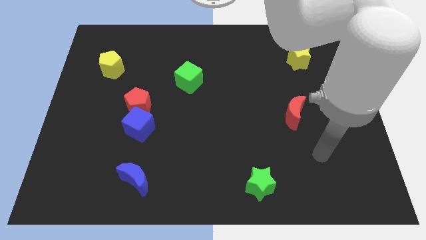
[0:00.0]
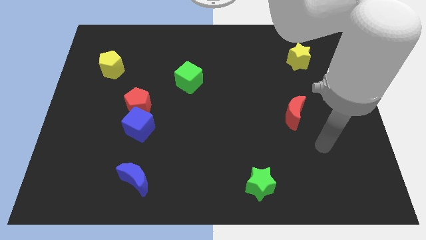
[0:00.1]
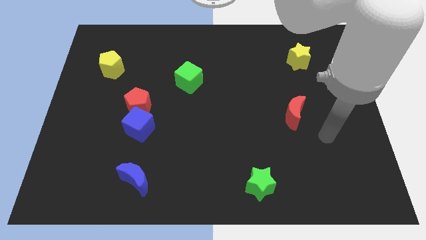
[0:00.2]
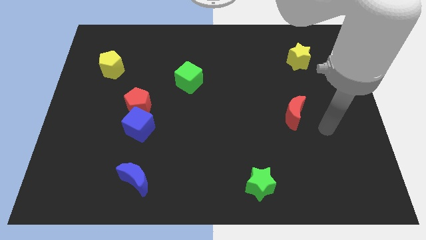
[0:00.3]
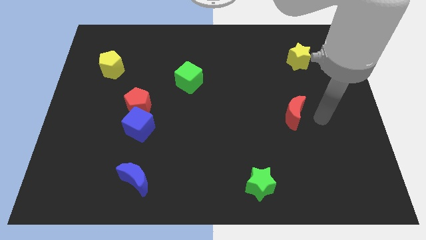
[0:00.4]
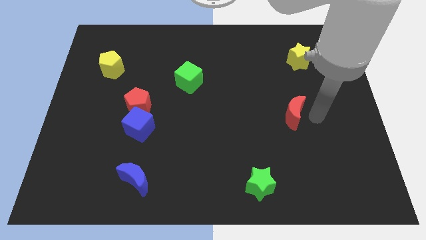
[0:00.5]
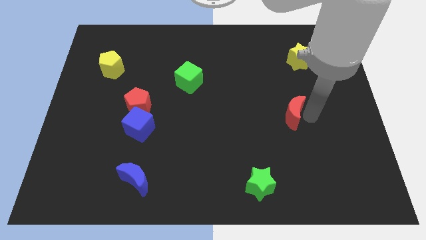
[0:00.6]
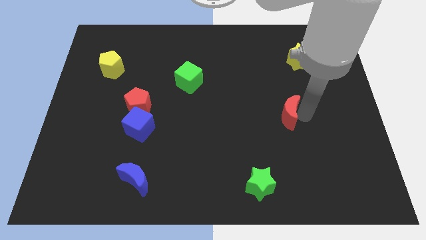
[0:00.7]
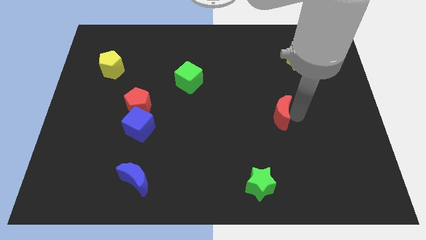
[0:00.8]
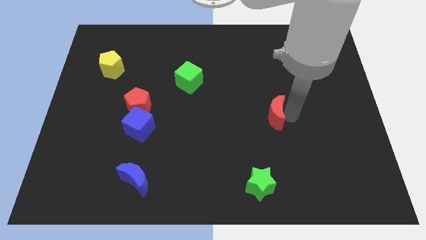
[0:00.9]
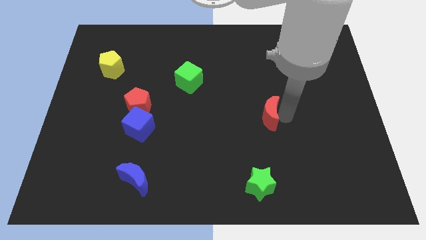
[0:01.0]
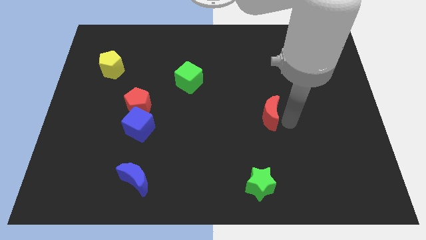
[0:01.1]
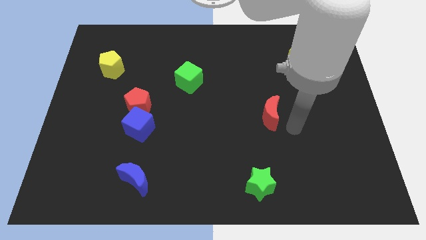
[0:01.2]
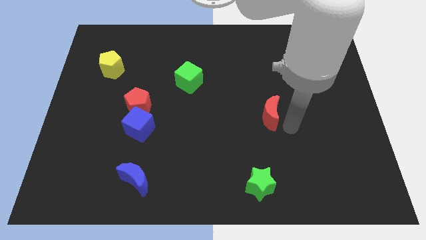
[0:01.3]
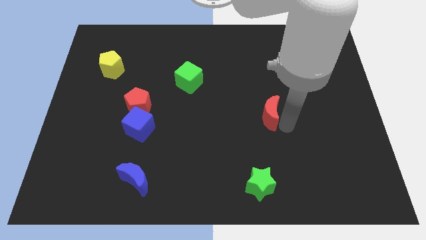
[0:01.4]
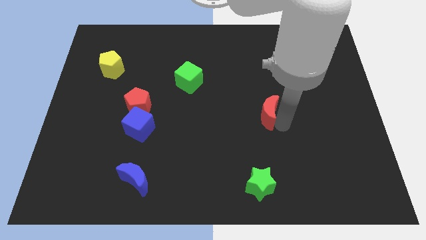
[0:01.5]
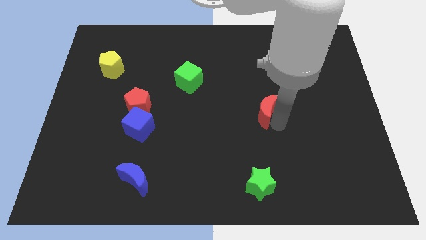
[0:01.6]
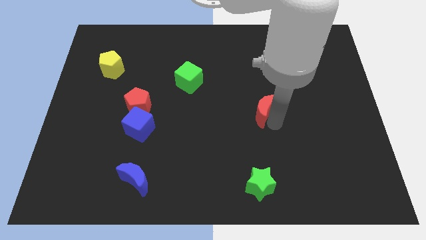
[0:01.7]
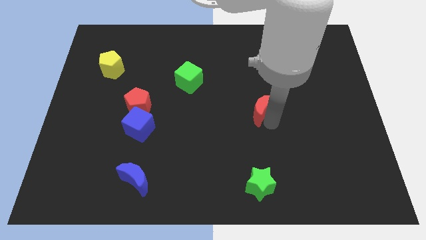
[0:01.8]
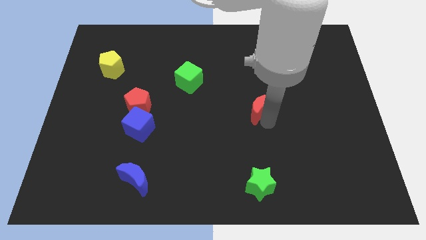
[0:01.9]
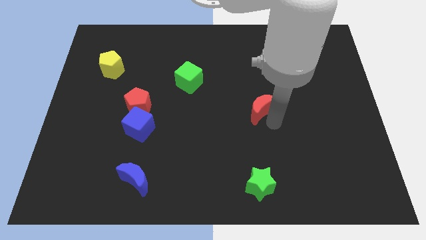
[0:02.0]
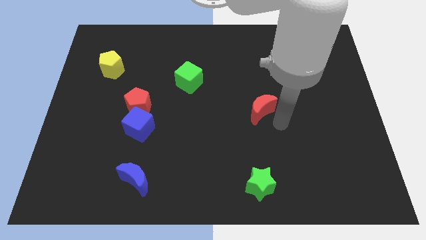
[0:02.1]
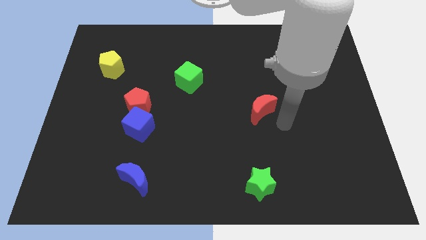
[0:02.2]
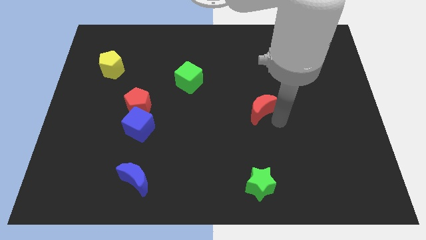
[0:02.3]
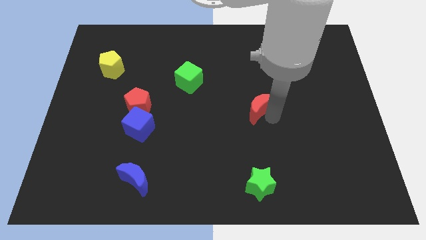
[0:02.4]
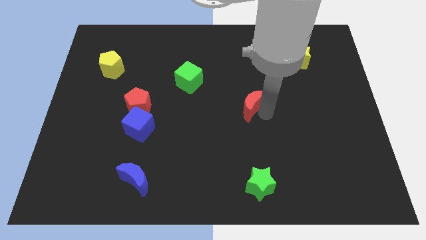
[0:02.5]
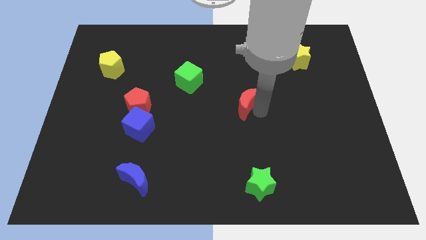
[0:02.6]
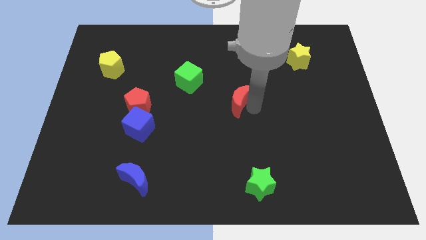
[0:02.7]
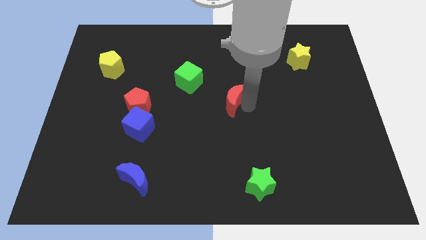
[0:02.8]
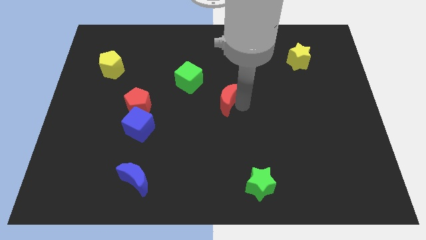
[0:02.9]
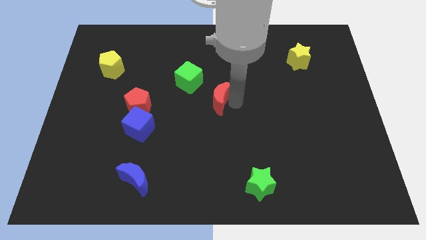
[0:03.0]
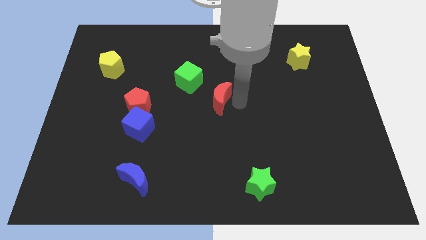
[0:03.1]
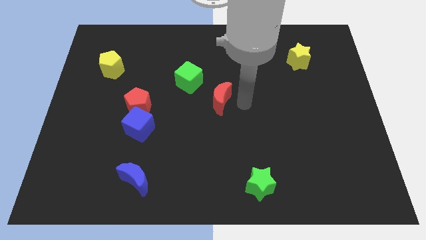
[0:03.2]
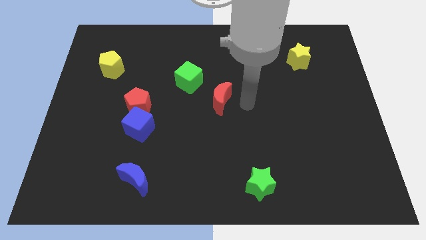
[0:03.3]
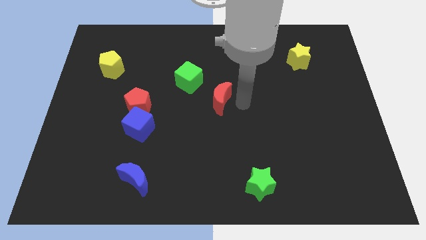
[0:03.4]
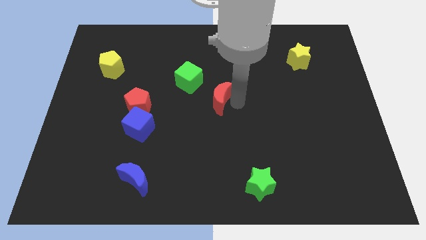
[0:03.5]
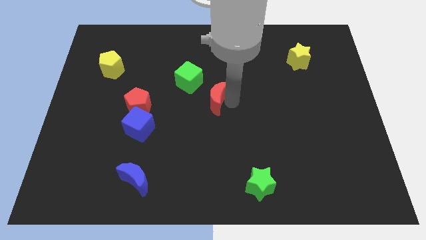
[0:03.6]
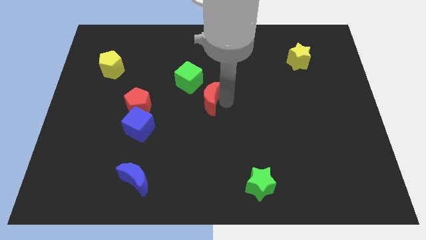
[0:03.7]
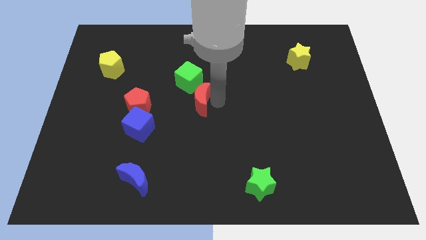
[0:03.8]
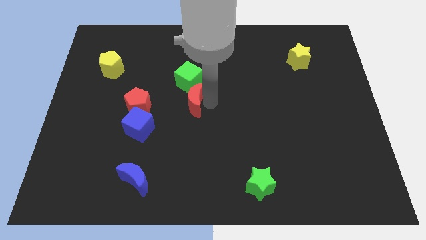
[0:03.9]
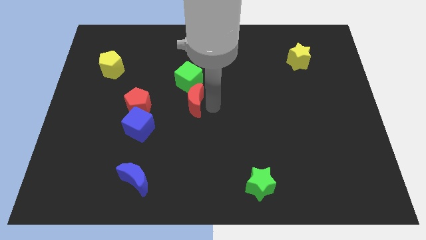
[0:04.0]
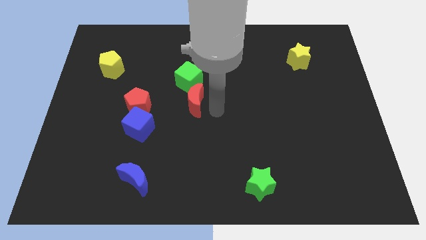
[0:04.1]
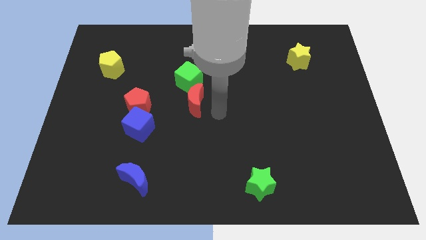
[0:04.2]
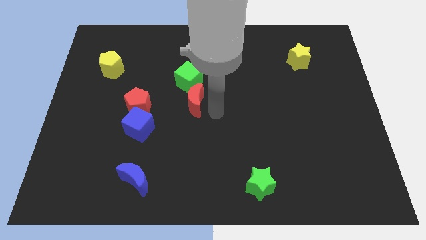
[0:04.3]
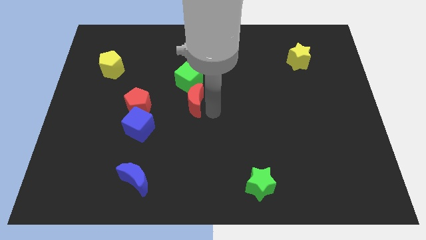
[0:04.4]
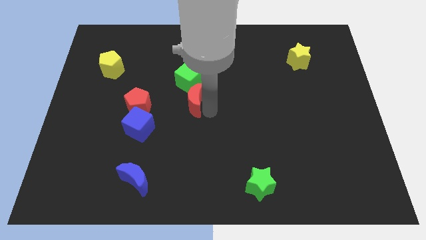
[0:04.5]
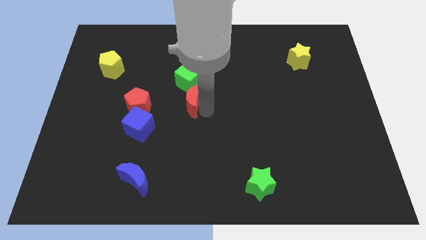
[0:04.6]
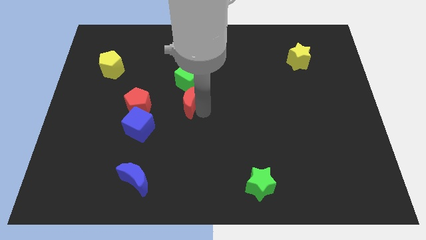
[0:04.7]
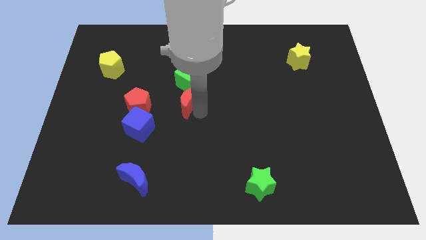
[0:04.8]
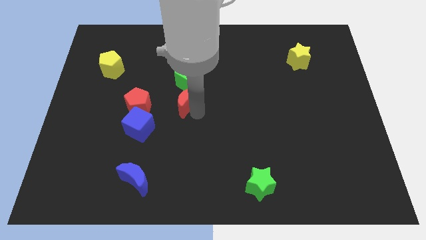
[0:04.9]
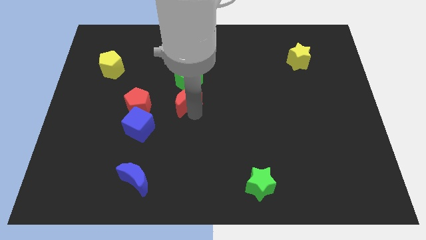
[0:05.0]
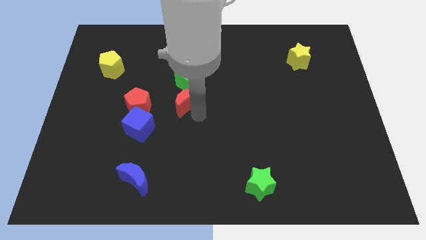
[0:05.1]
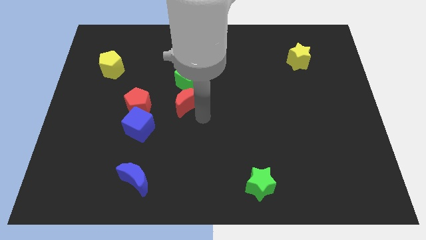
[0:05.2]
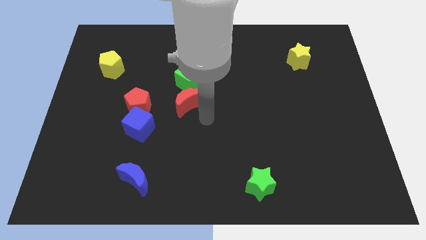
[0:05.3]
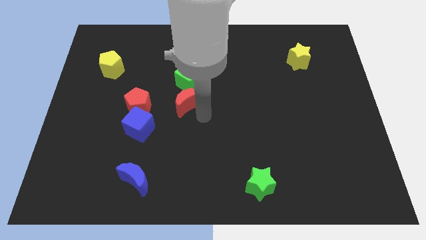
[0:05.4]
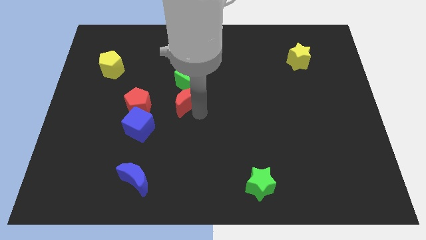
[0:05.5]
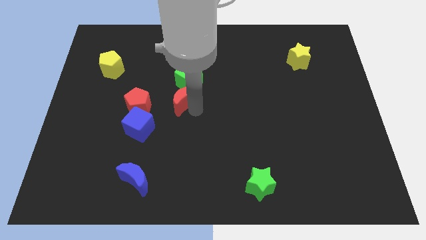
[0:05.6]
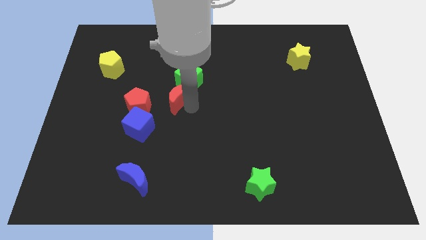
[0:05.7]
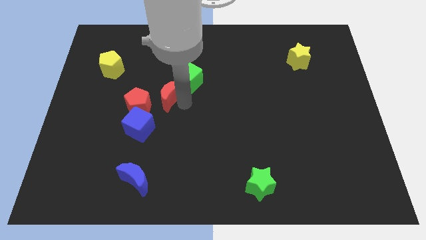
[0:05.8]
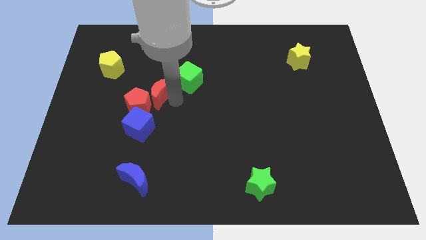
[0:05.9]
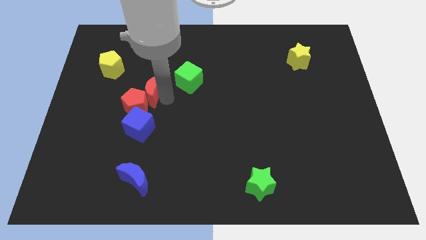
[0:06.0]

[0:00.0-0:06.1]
push the red moon to the top of the red pentagon

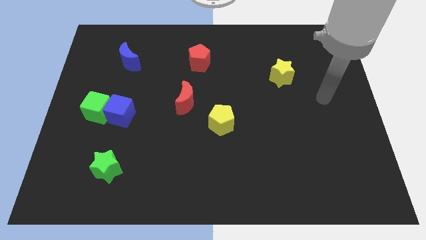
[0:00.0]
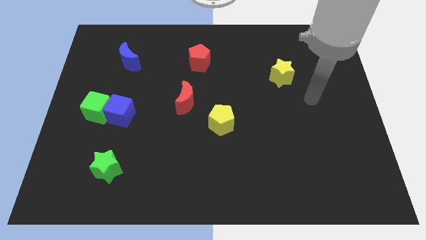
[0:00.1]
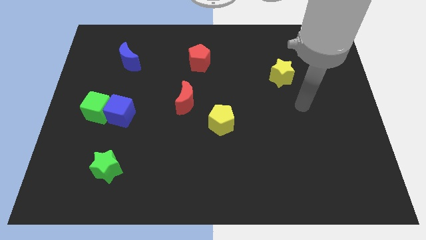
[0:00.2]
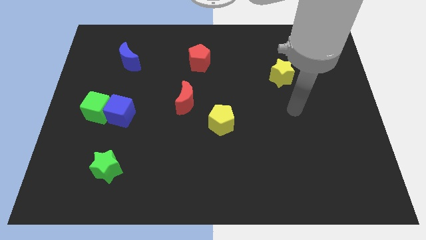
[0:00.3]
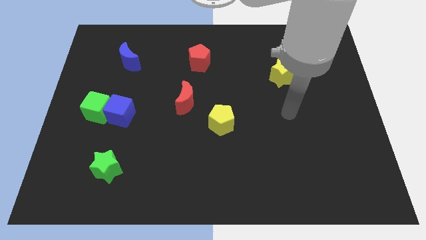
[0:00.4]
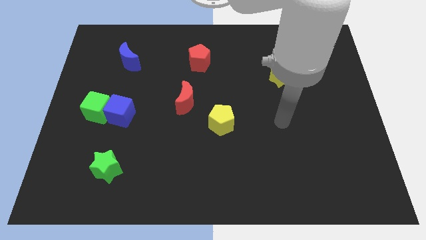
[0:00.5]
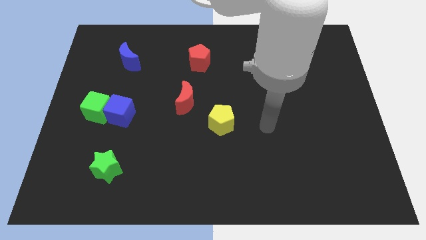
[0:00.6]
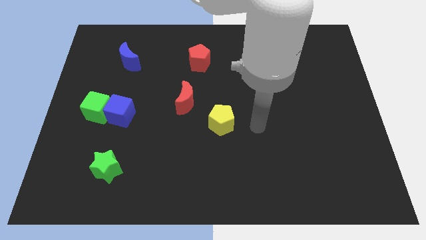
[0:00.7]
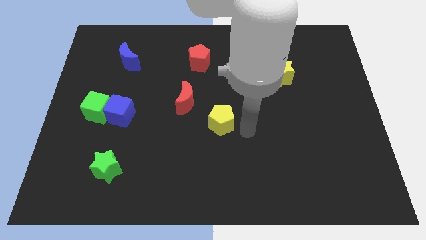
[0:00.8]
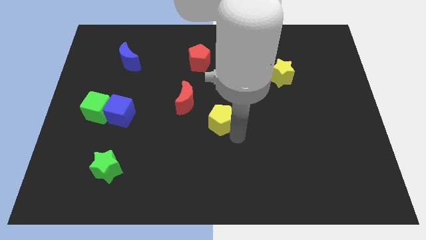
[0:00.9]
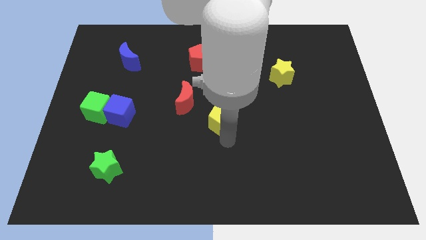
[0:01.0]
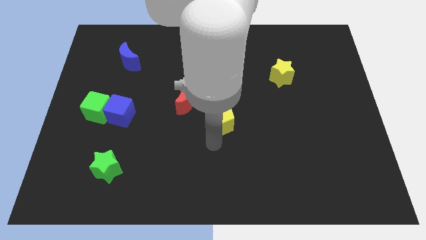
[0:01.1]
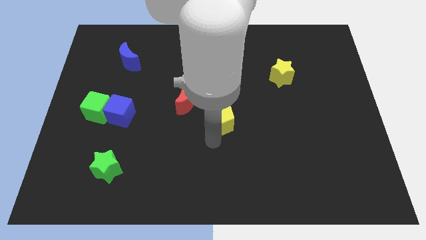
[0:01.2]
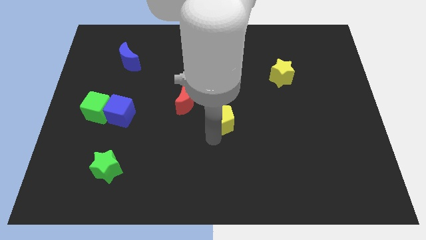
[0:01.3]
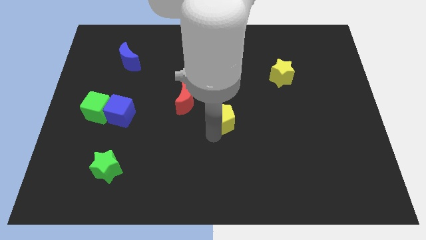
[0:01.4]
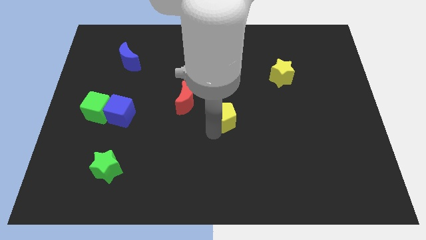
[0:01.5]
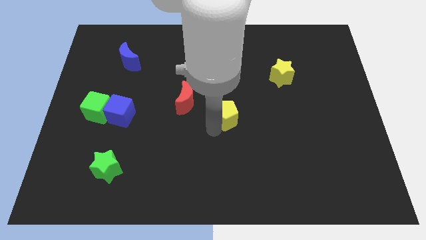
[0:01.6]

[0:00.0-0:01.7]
push the yellow pentagon just right of the red moon
